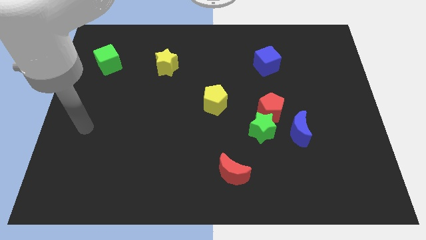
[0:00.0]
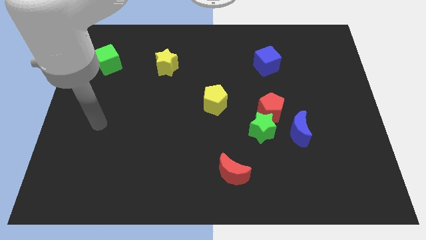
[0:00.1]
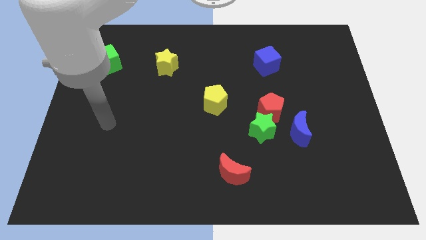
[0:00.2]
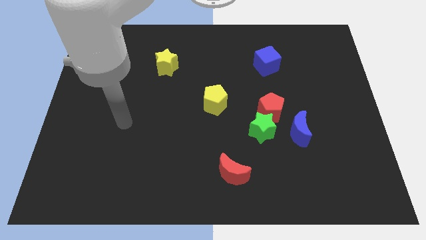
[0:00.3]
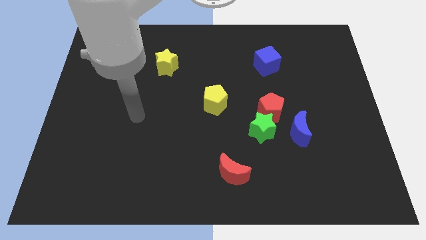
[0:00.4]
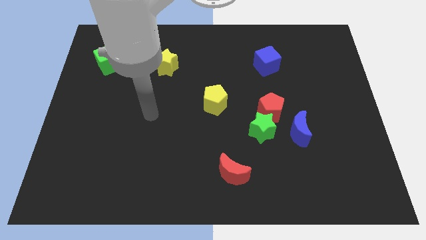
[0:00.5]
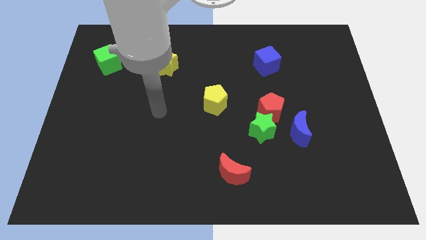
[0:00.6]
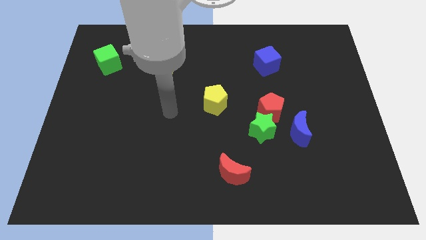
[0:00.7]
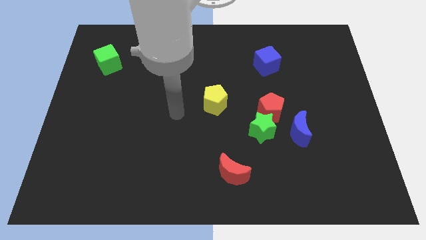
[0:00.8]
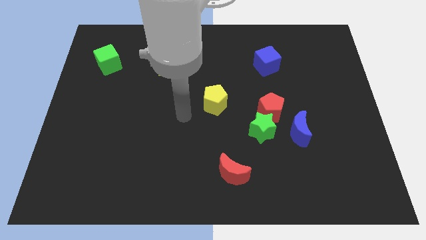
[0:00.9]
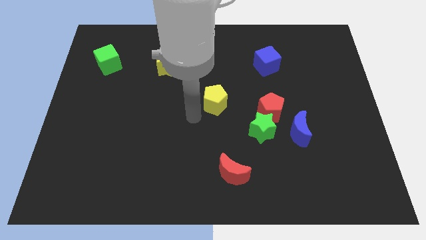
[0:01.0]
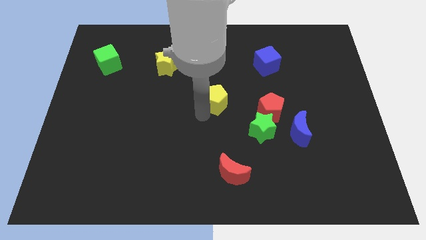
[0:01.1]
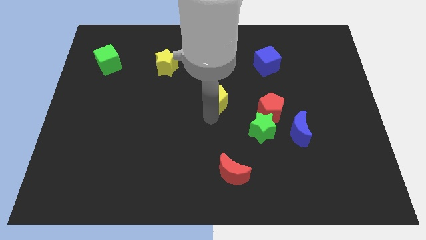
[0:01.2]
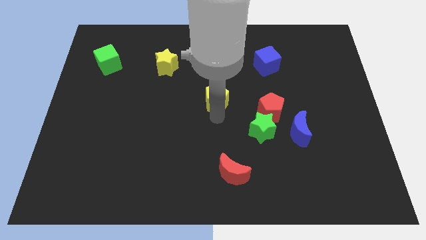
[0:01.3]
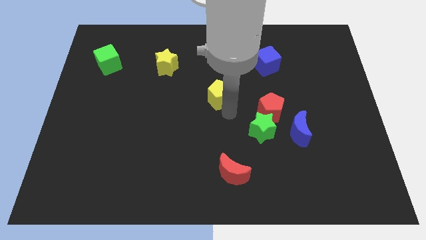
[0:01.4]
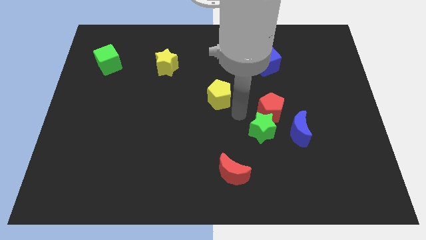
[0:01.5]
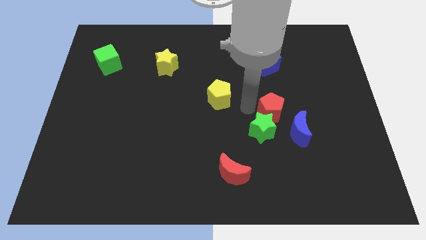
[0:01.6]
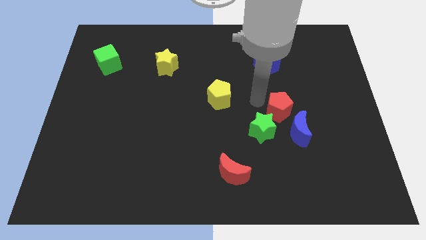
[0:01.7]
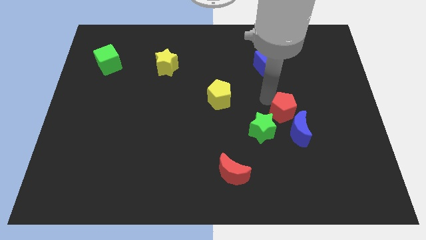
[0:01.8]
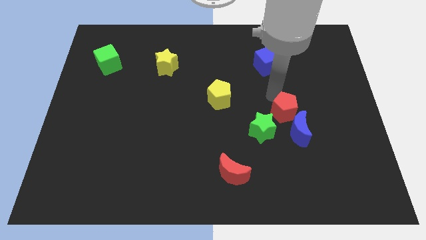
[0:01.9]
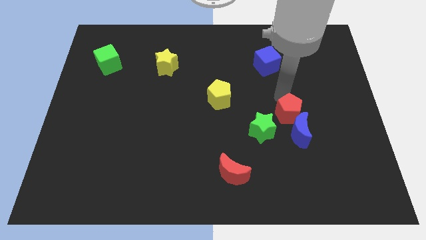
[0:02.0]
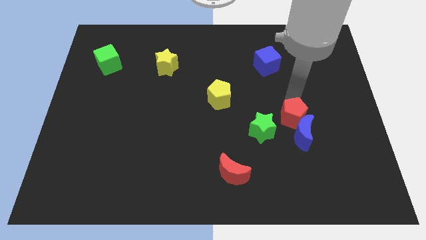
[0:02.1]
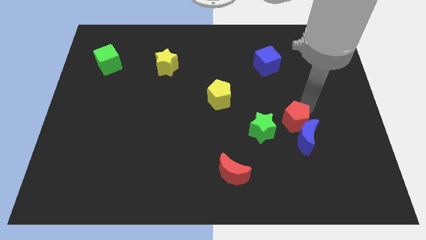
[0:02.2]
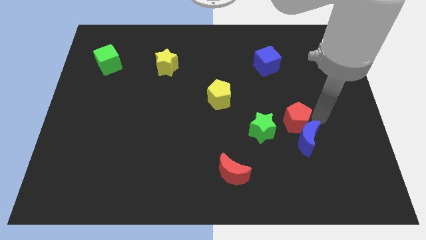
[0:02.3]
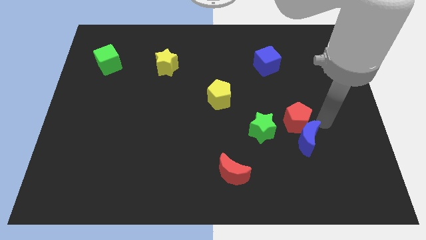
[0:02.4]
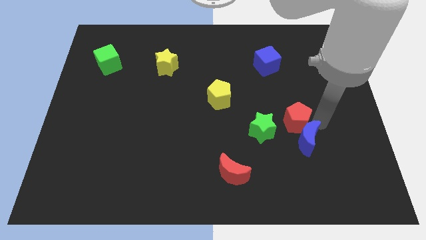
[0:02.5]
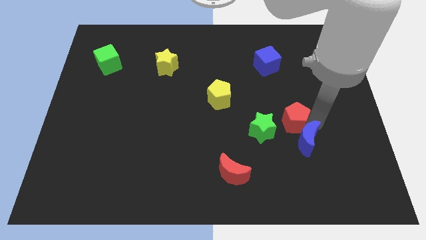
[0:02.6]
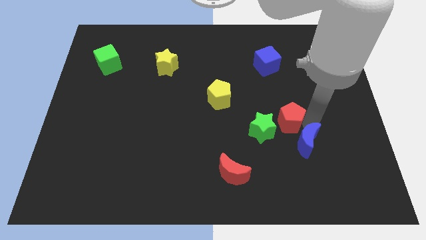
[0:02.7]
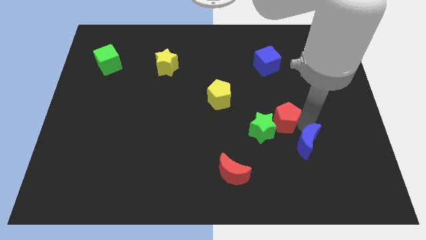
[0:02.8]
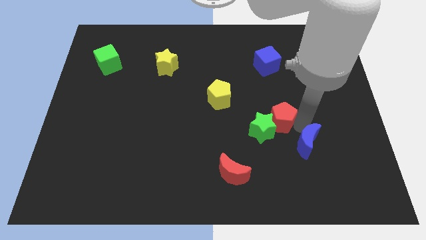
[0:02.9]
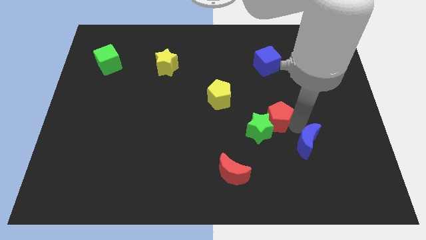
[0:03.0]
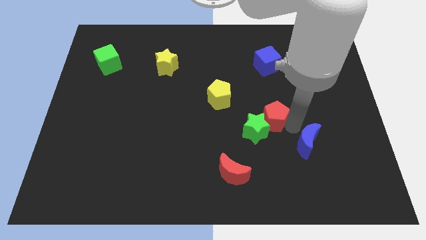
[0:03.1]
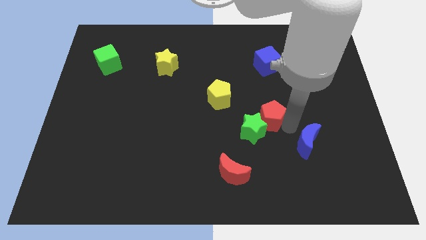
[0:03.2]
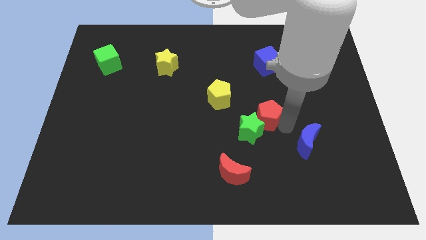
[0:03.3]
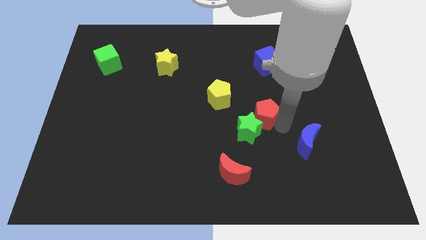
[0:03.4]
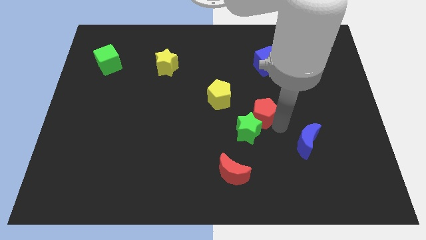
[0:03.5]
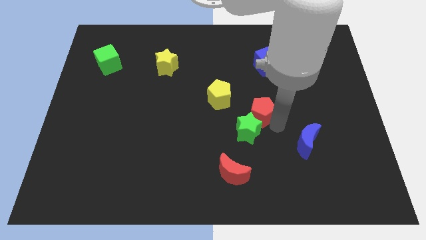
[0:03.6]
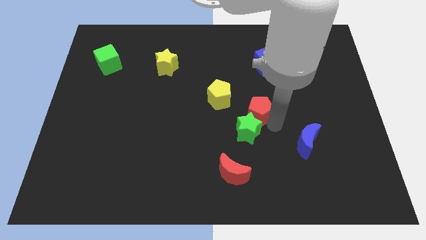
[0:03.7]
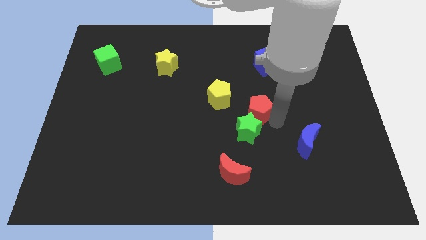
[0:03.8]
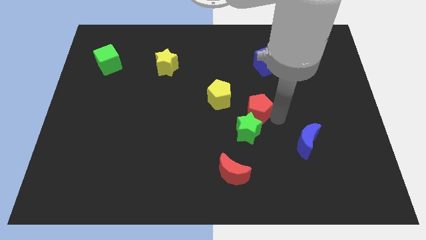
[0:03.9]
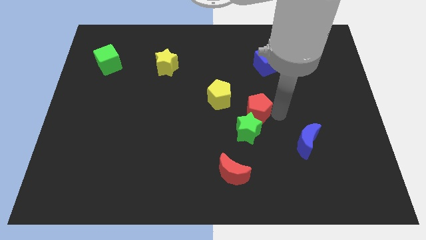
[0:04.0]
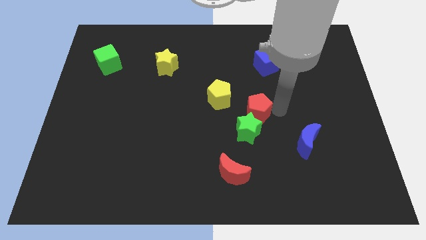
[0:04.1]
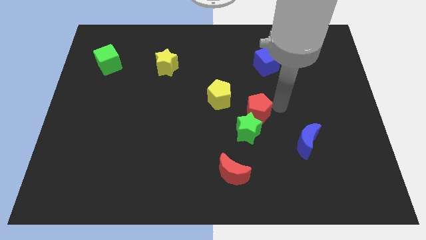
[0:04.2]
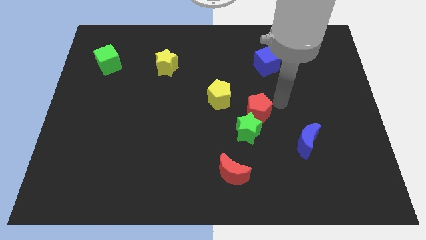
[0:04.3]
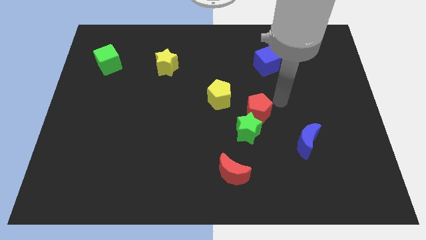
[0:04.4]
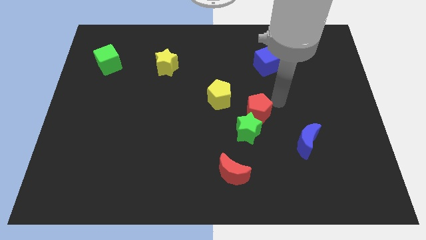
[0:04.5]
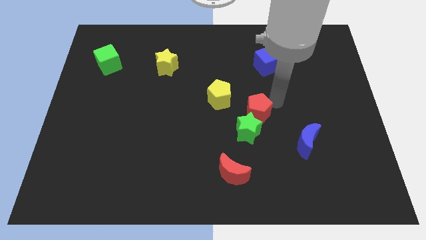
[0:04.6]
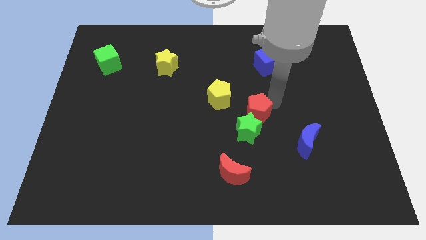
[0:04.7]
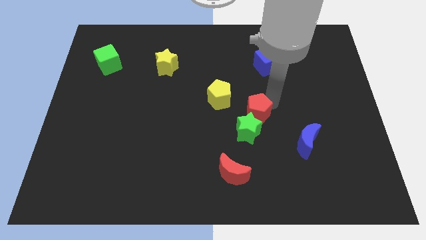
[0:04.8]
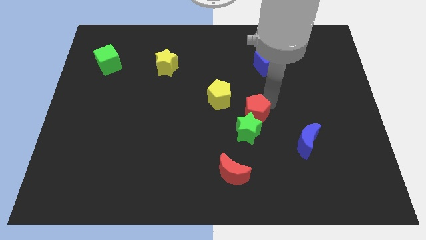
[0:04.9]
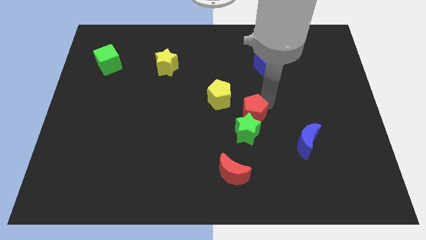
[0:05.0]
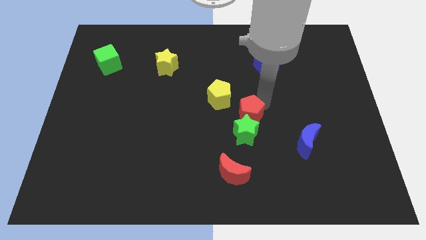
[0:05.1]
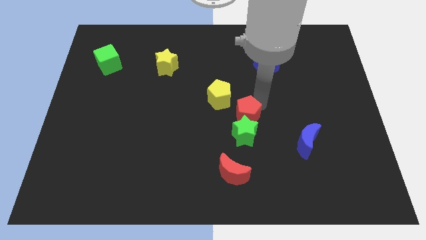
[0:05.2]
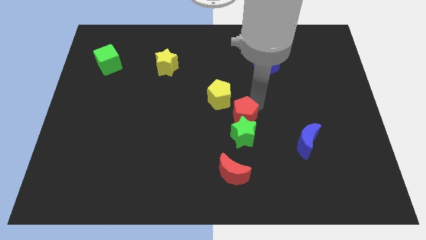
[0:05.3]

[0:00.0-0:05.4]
slide the red pentagon to the top of the red moon

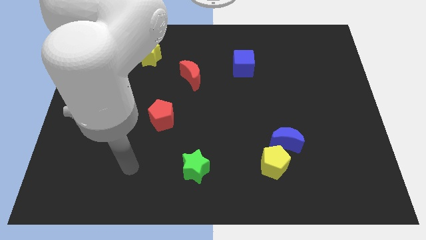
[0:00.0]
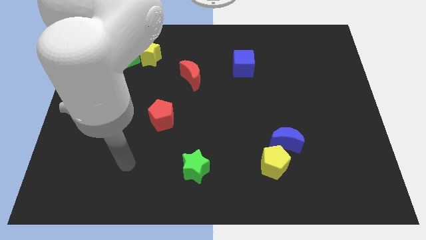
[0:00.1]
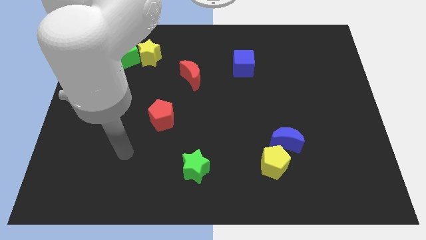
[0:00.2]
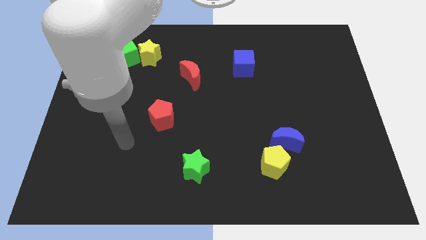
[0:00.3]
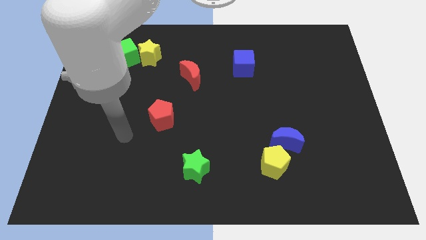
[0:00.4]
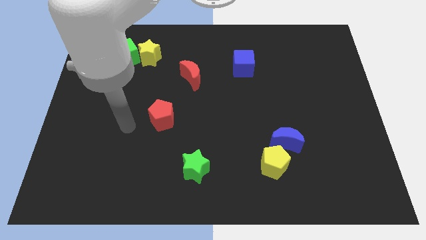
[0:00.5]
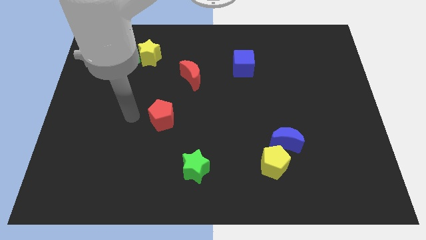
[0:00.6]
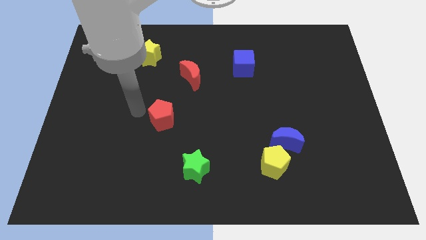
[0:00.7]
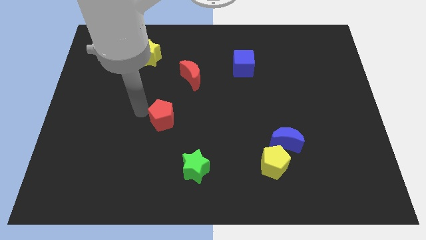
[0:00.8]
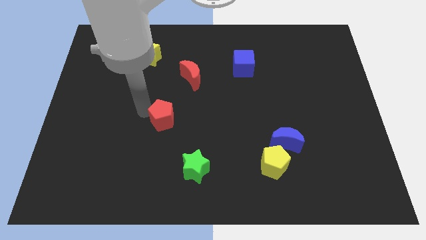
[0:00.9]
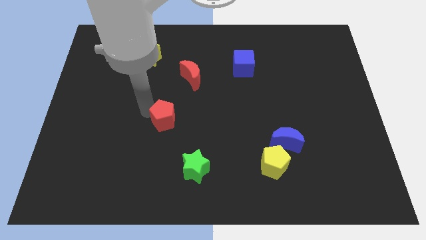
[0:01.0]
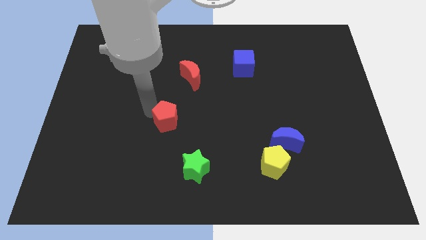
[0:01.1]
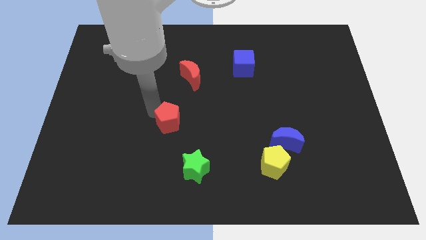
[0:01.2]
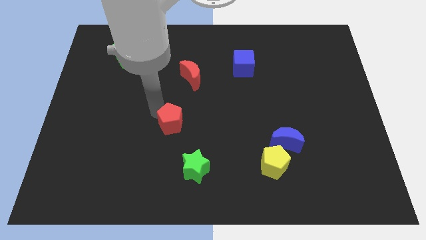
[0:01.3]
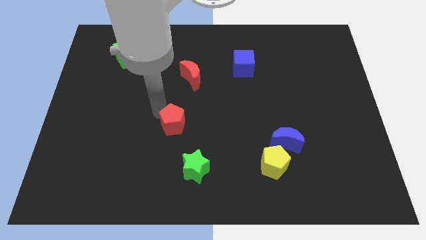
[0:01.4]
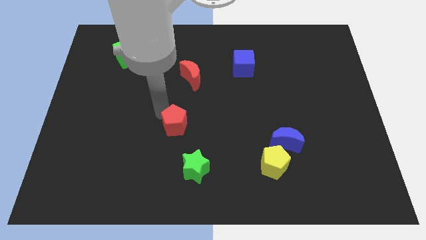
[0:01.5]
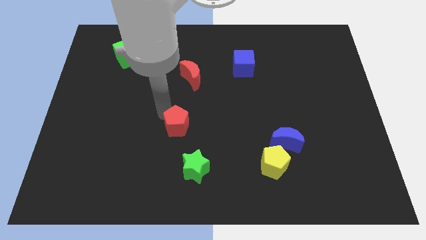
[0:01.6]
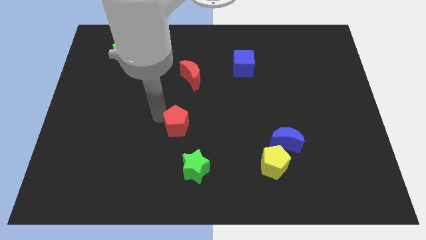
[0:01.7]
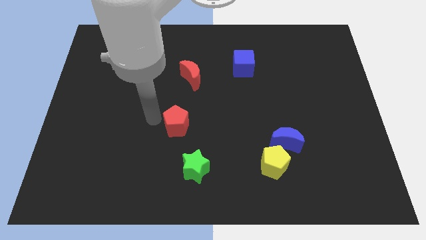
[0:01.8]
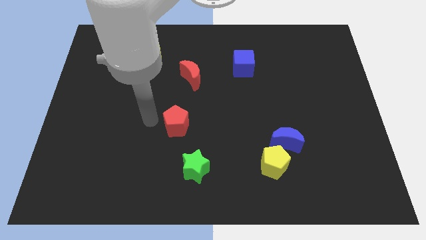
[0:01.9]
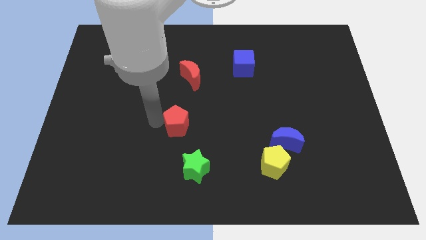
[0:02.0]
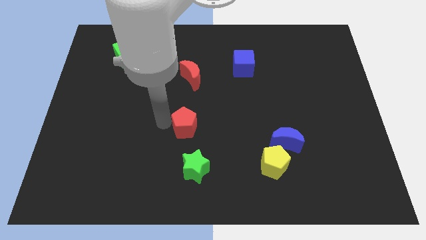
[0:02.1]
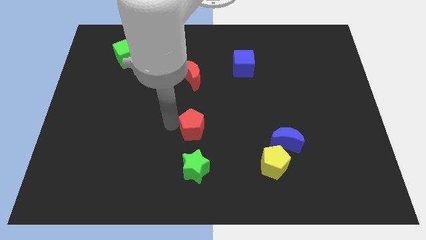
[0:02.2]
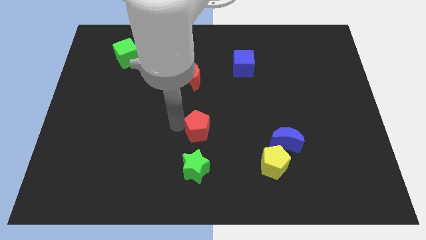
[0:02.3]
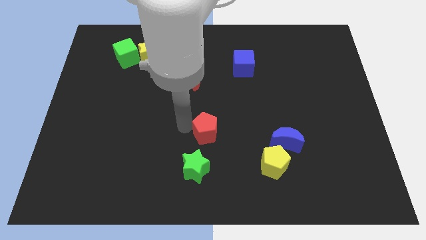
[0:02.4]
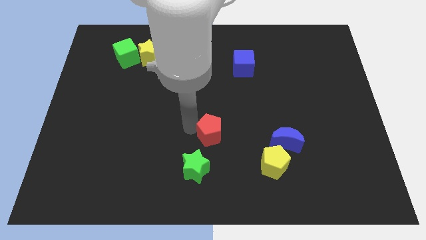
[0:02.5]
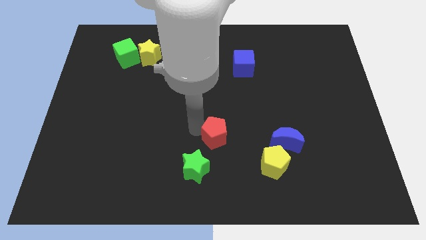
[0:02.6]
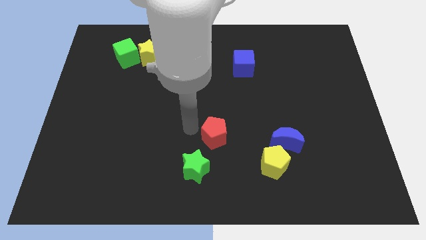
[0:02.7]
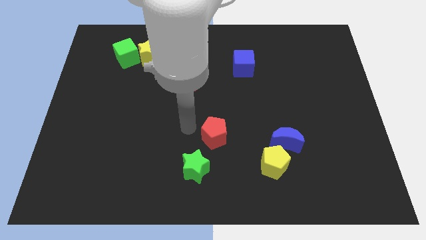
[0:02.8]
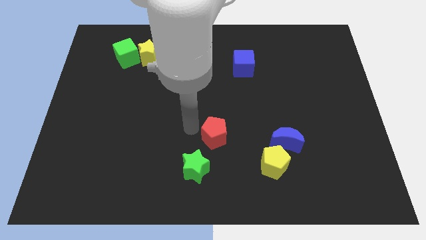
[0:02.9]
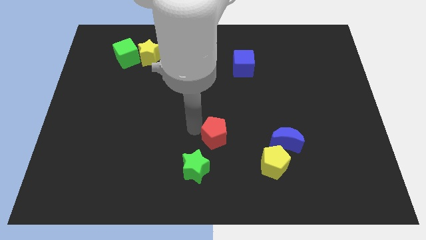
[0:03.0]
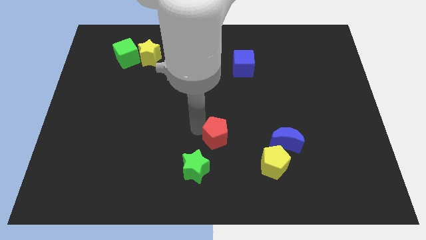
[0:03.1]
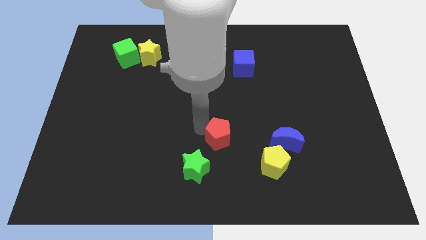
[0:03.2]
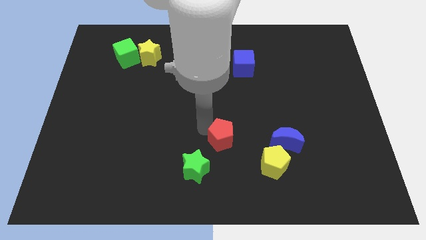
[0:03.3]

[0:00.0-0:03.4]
push the red pentagon diagonally up and to the left of the yellow pentagon
